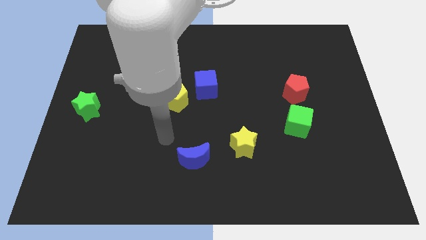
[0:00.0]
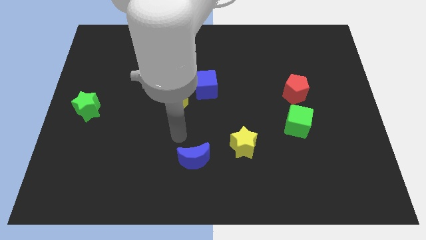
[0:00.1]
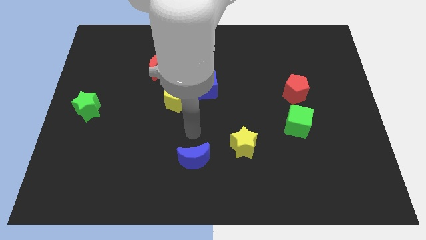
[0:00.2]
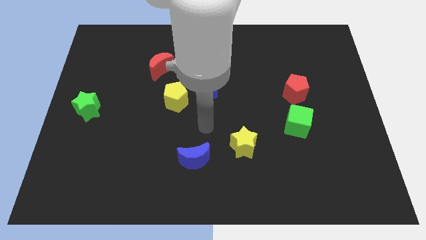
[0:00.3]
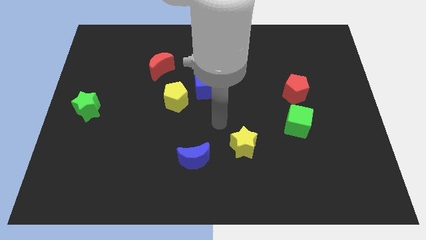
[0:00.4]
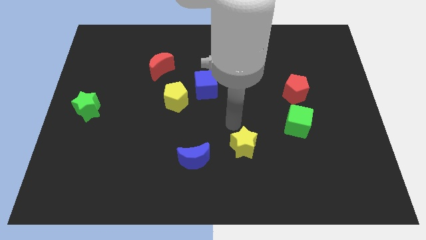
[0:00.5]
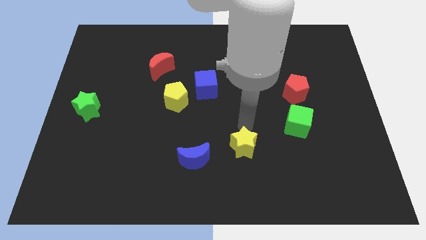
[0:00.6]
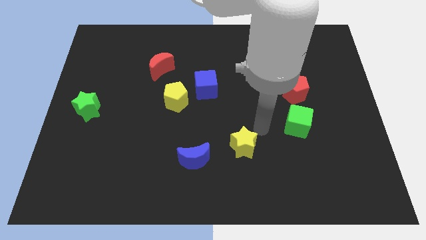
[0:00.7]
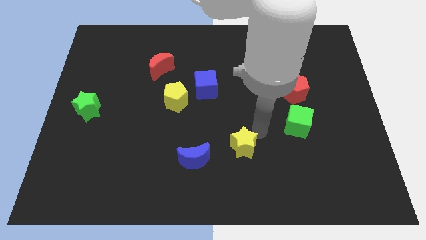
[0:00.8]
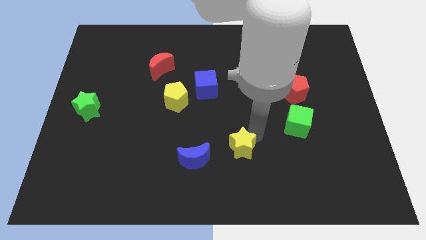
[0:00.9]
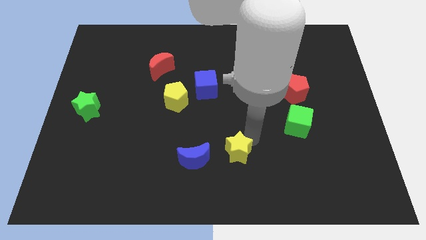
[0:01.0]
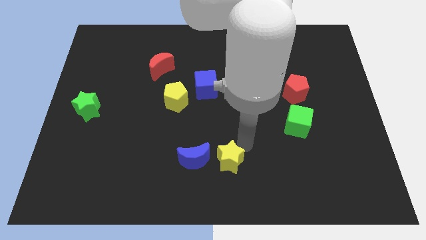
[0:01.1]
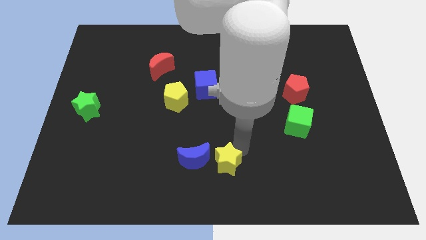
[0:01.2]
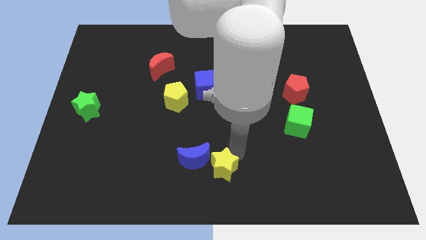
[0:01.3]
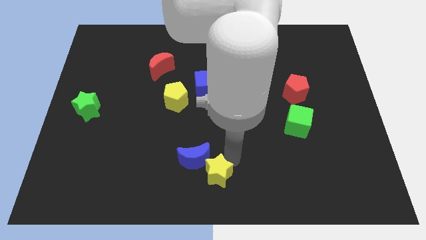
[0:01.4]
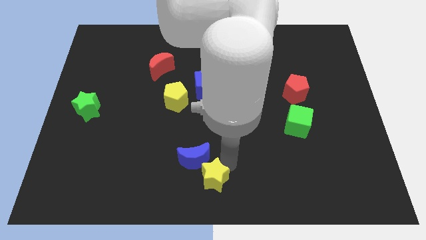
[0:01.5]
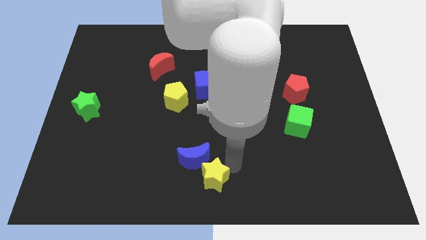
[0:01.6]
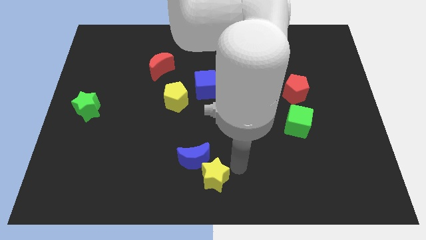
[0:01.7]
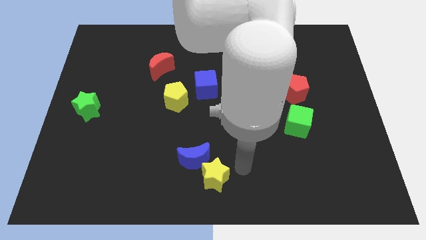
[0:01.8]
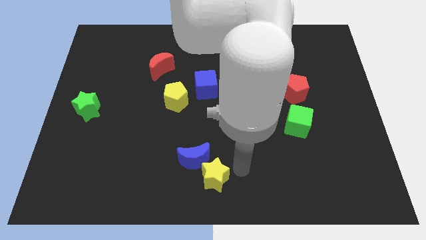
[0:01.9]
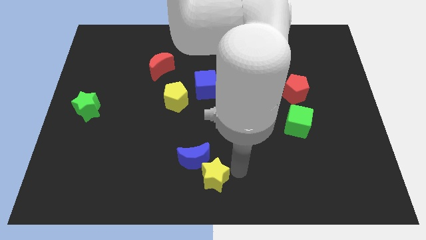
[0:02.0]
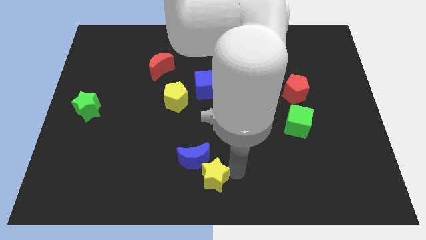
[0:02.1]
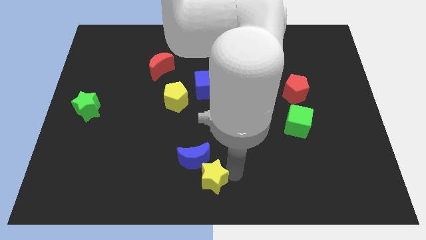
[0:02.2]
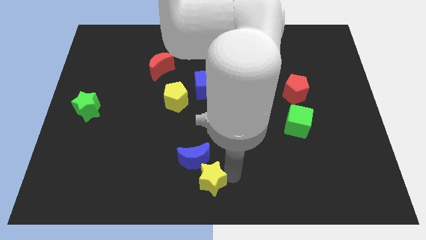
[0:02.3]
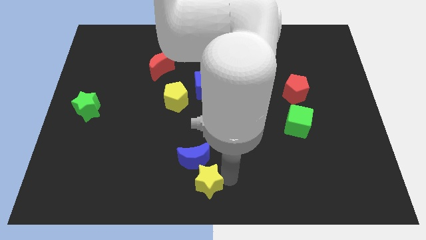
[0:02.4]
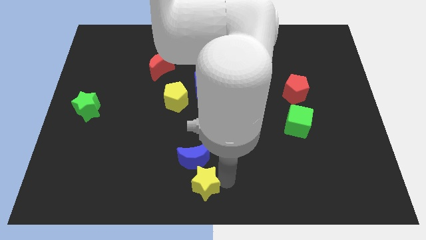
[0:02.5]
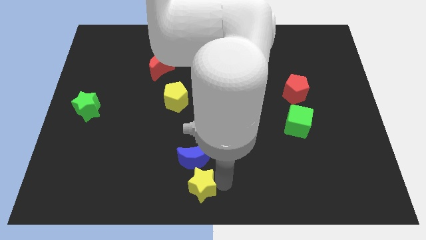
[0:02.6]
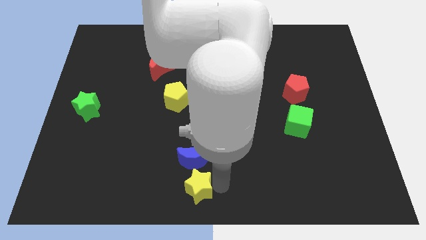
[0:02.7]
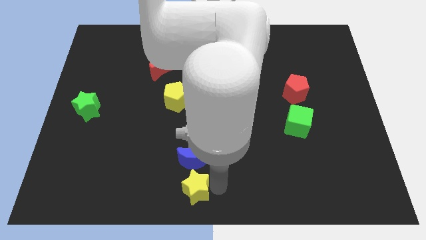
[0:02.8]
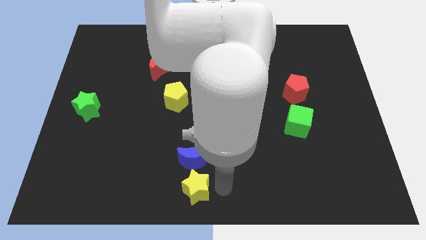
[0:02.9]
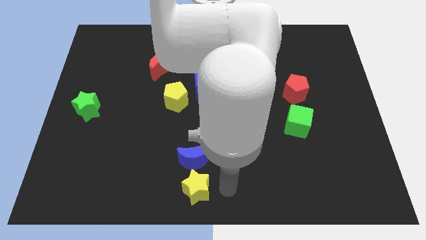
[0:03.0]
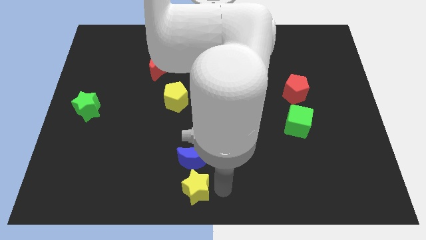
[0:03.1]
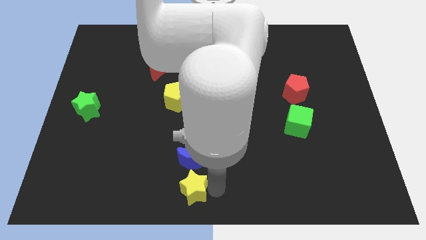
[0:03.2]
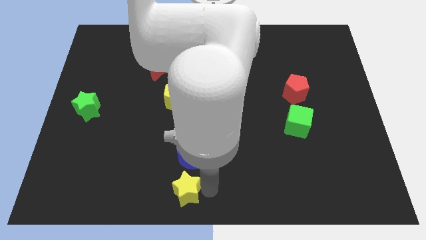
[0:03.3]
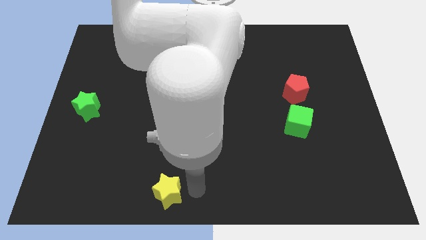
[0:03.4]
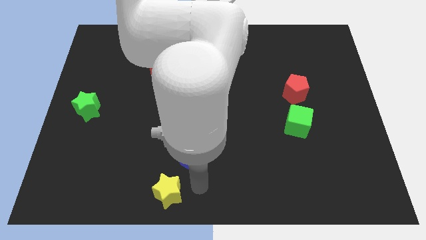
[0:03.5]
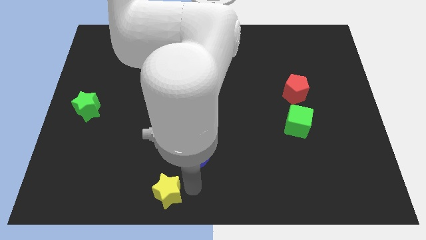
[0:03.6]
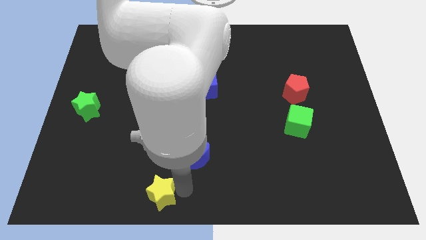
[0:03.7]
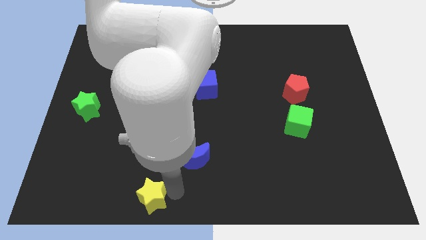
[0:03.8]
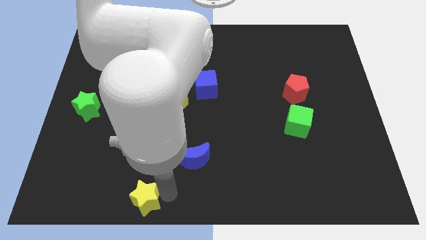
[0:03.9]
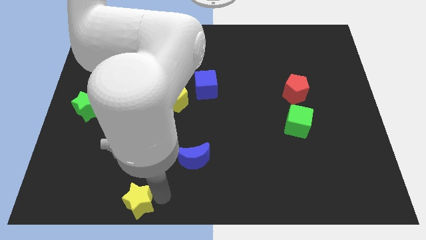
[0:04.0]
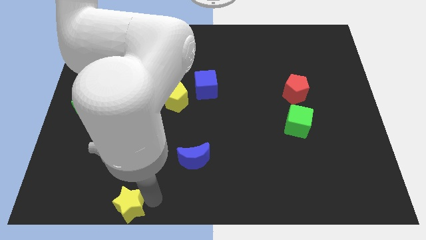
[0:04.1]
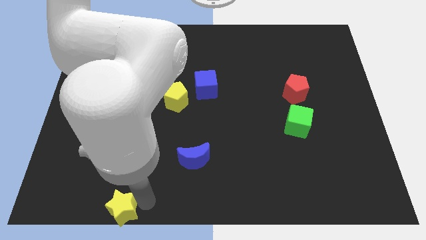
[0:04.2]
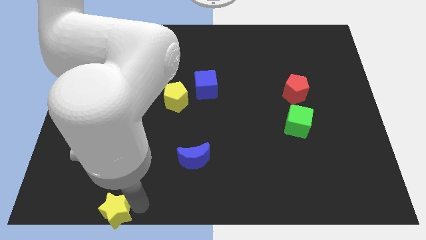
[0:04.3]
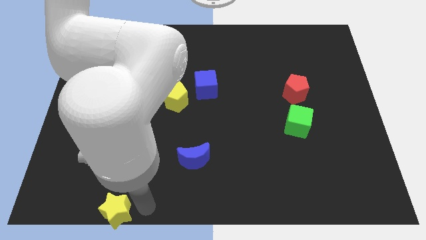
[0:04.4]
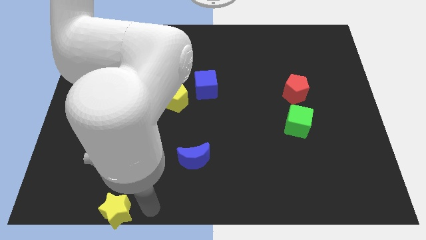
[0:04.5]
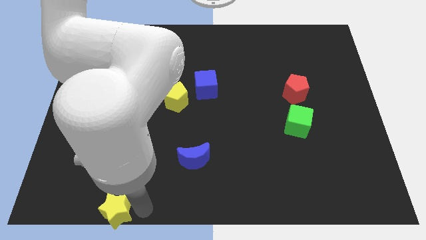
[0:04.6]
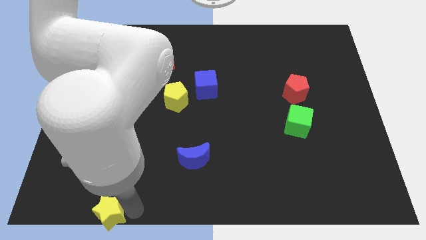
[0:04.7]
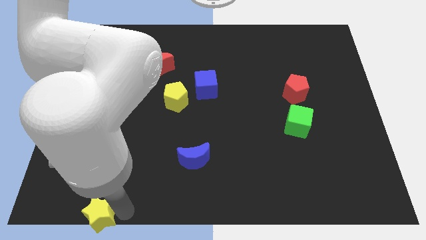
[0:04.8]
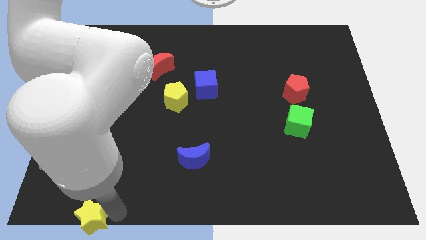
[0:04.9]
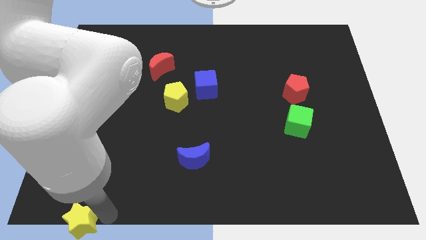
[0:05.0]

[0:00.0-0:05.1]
slide the yellow star to the lower left corner
